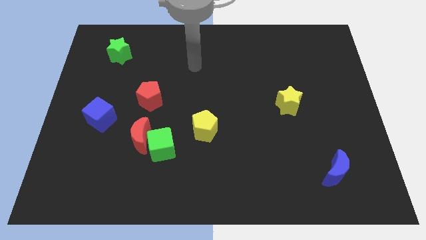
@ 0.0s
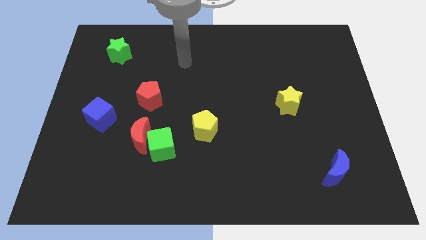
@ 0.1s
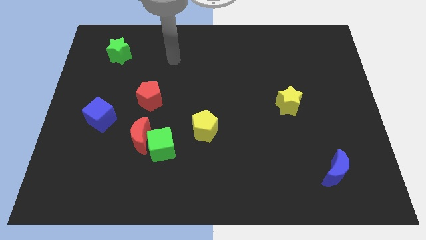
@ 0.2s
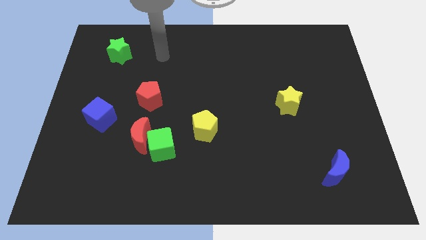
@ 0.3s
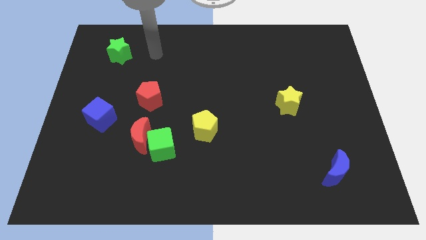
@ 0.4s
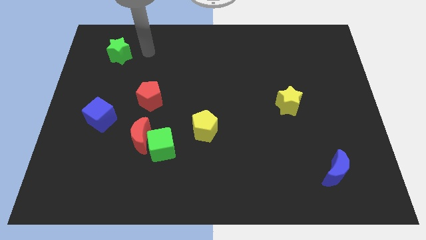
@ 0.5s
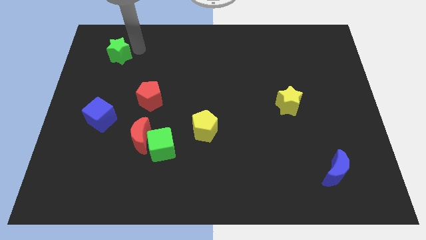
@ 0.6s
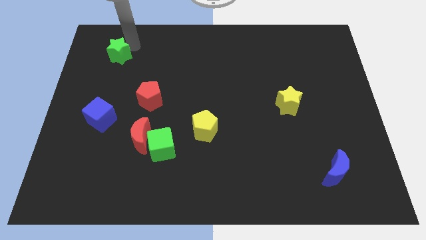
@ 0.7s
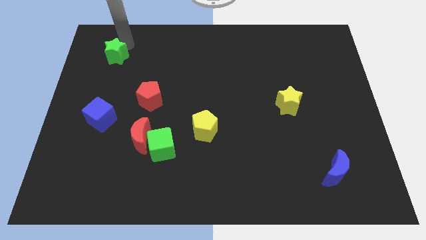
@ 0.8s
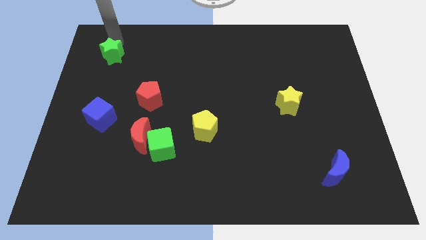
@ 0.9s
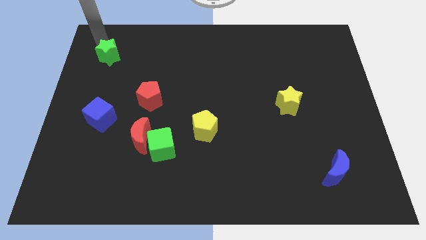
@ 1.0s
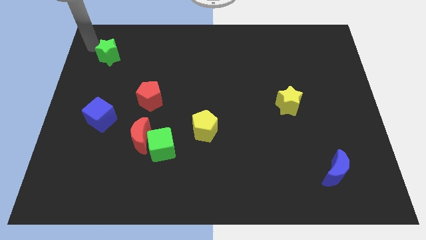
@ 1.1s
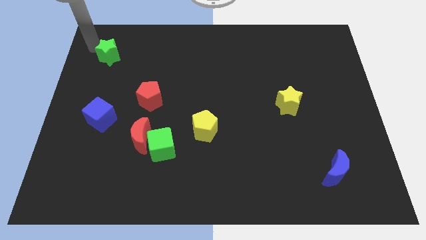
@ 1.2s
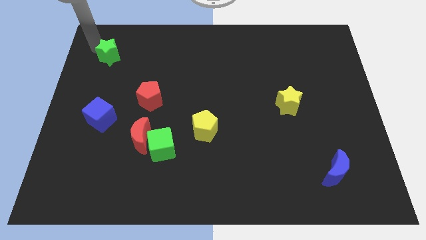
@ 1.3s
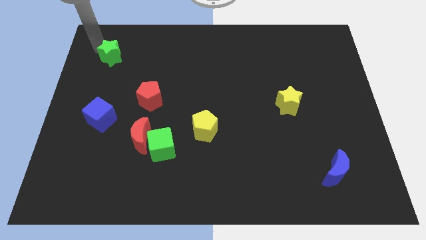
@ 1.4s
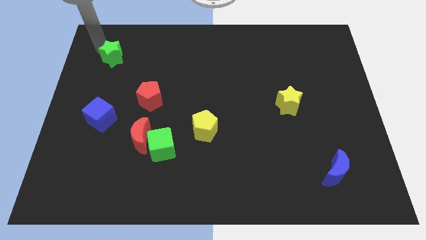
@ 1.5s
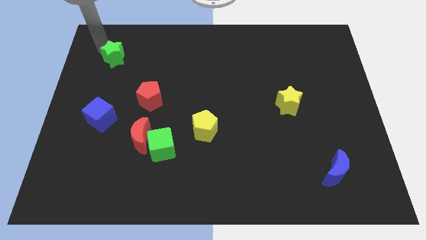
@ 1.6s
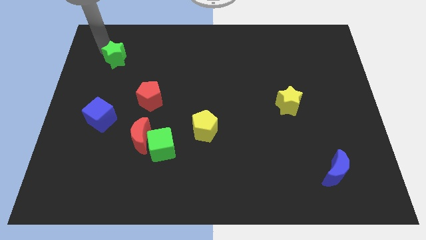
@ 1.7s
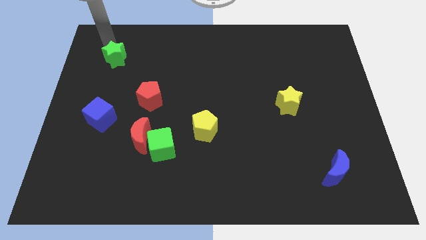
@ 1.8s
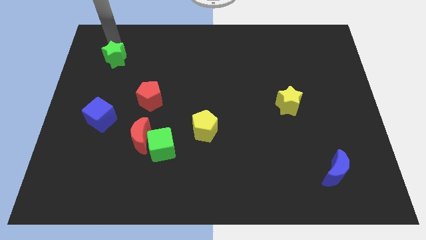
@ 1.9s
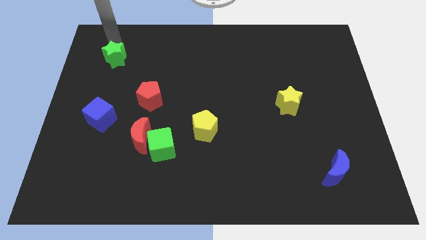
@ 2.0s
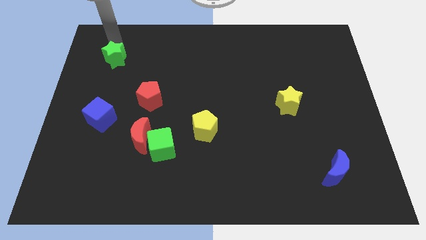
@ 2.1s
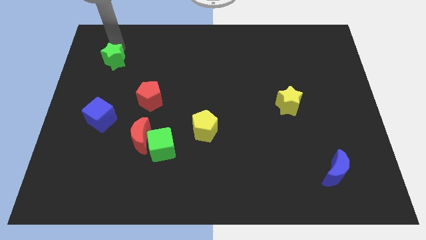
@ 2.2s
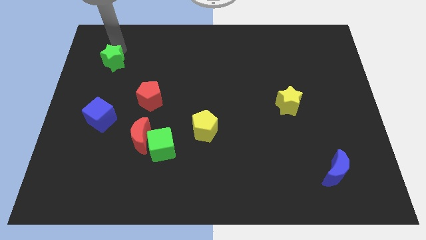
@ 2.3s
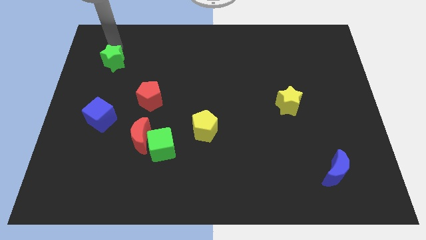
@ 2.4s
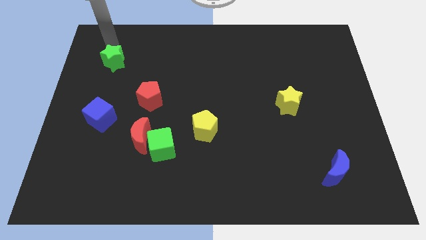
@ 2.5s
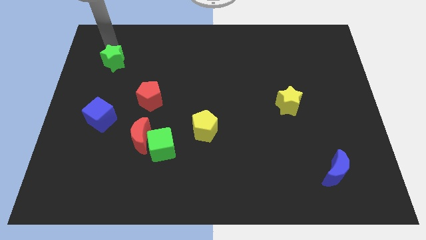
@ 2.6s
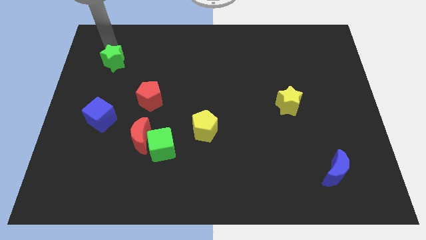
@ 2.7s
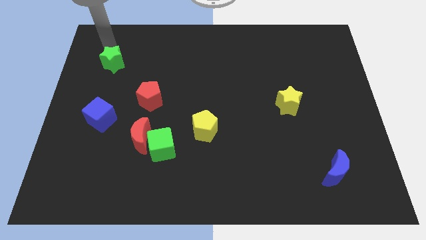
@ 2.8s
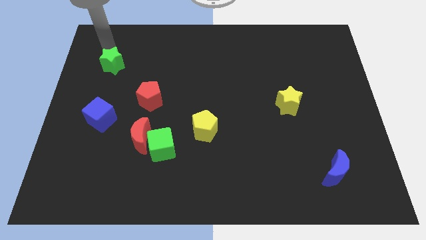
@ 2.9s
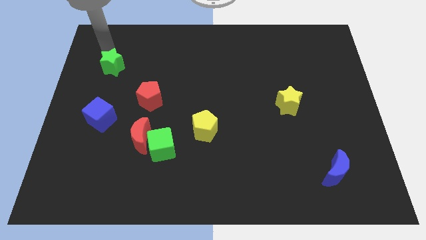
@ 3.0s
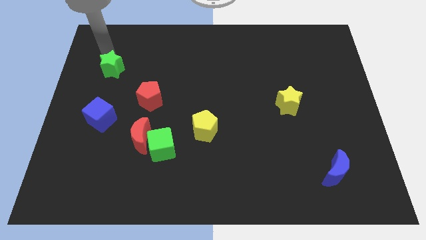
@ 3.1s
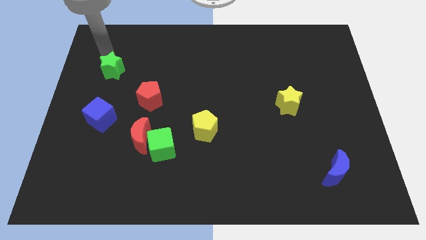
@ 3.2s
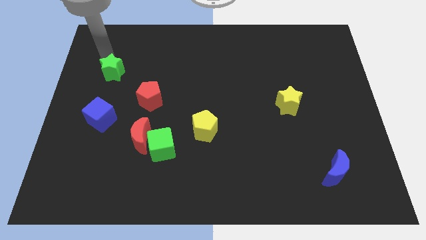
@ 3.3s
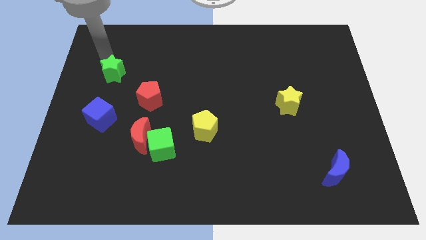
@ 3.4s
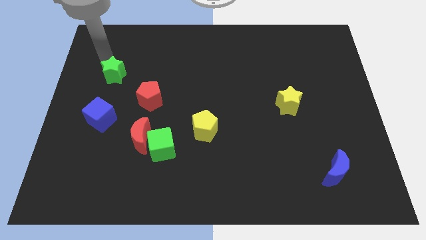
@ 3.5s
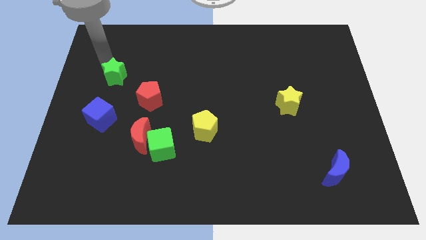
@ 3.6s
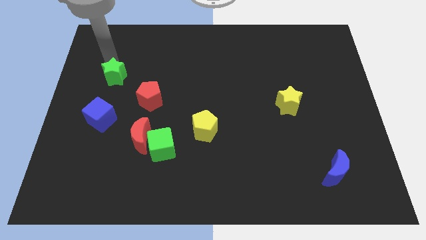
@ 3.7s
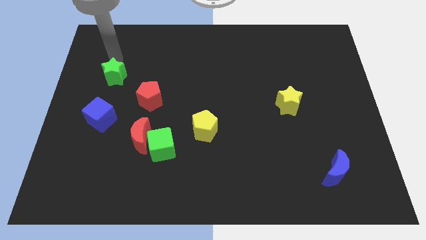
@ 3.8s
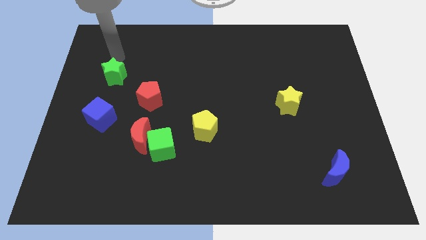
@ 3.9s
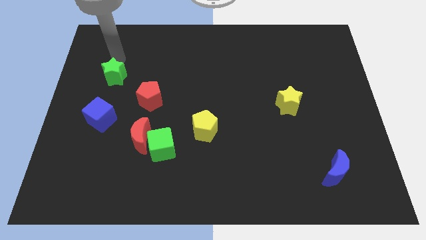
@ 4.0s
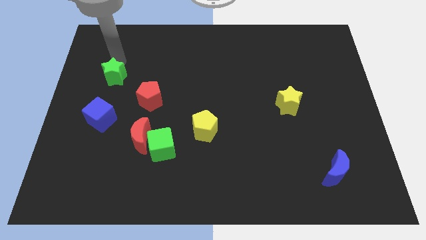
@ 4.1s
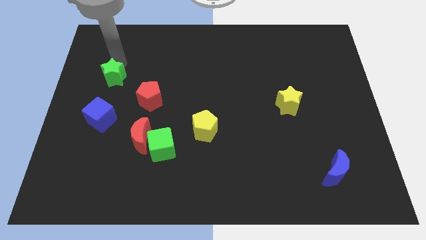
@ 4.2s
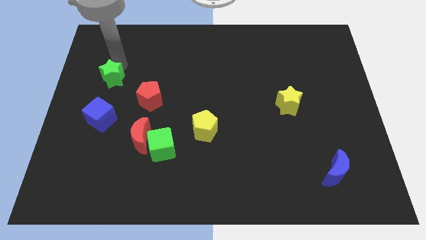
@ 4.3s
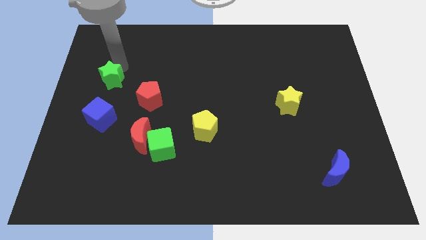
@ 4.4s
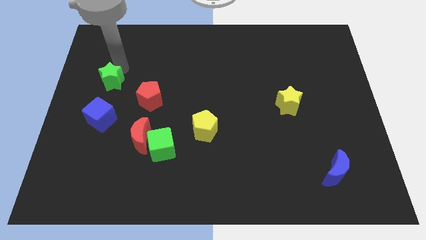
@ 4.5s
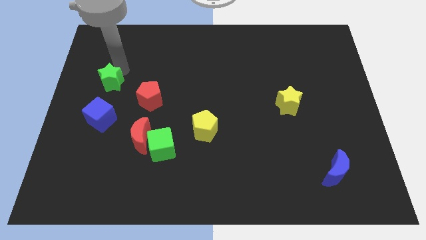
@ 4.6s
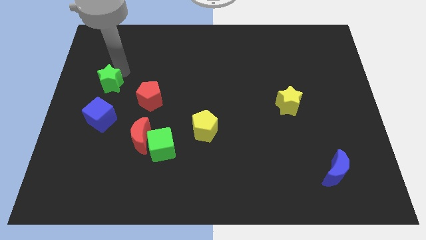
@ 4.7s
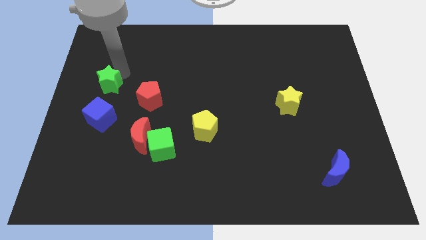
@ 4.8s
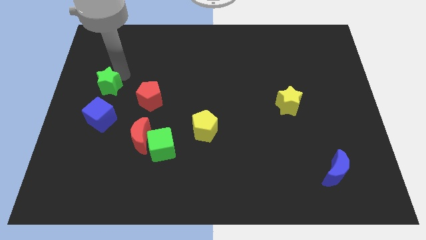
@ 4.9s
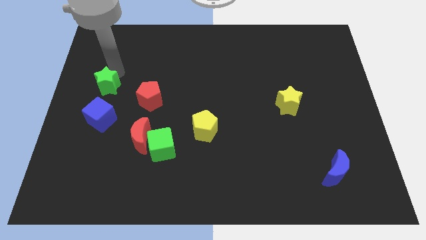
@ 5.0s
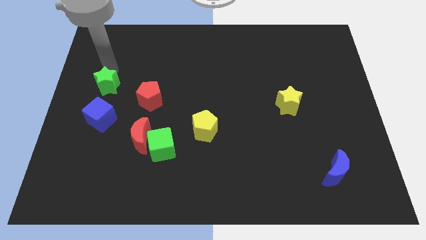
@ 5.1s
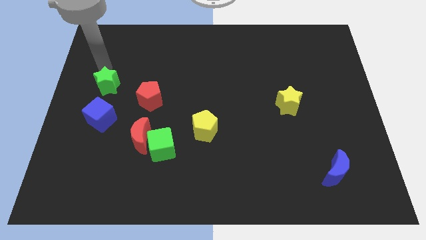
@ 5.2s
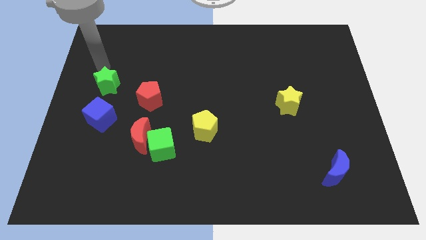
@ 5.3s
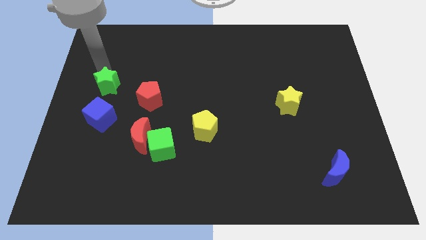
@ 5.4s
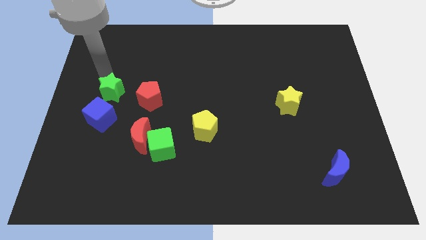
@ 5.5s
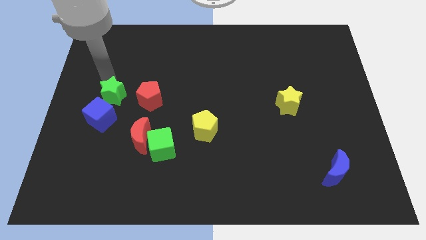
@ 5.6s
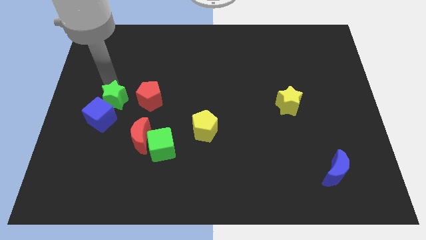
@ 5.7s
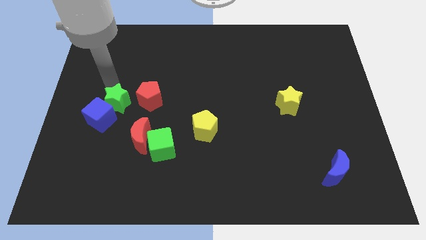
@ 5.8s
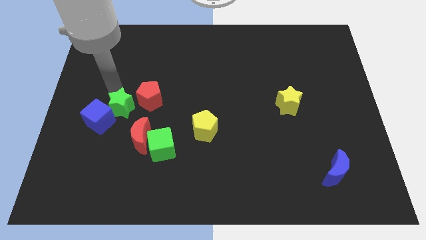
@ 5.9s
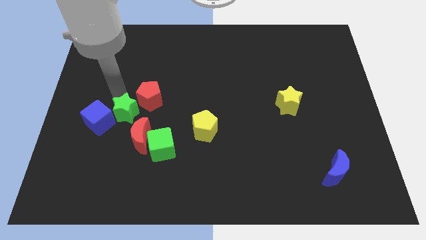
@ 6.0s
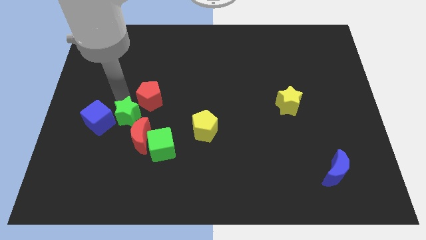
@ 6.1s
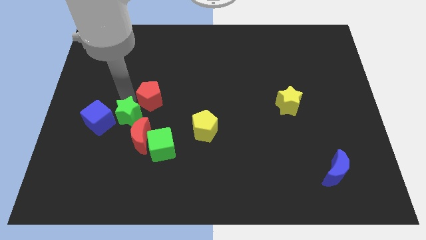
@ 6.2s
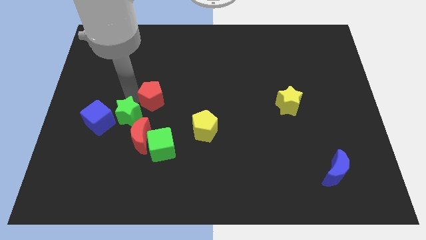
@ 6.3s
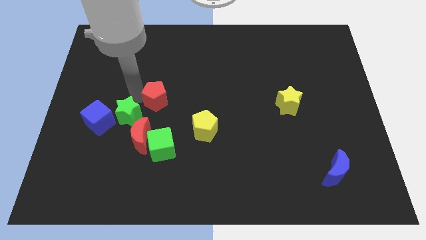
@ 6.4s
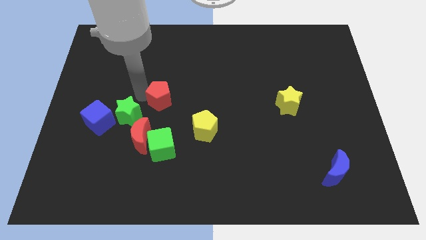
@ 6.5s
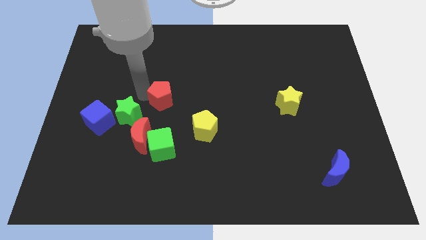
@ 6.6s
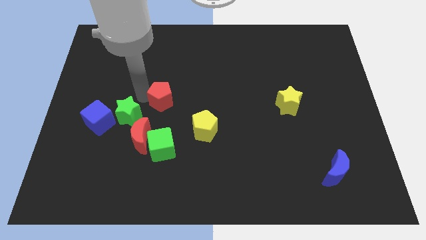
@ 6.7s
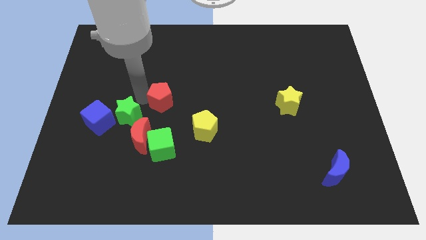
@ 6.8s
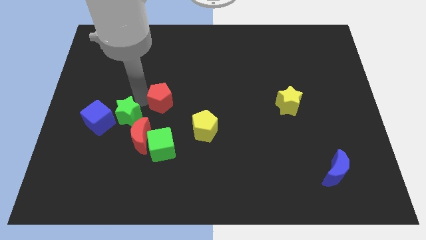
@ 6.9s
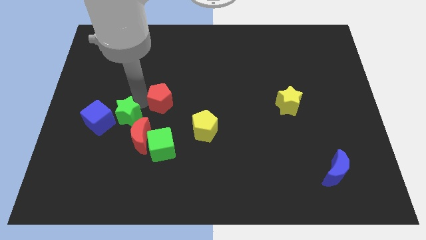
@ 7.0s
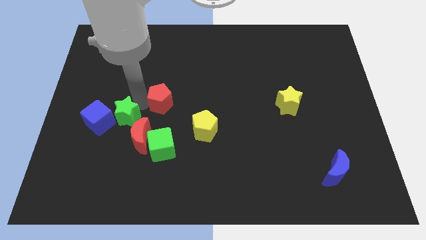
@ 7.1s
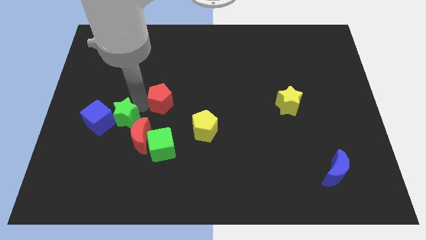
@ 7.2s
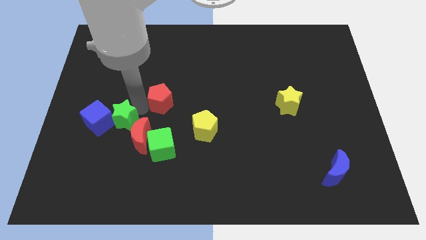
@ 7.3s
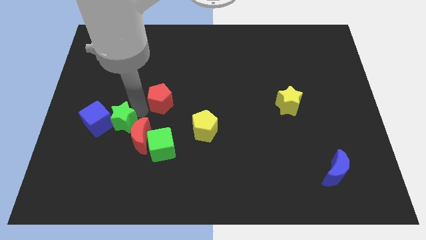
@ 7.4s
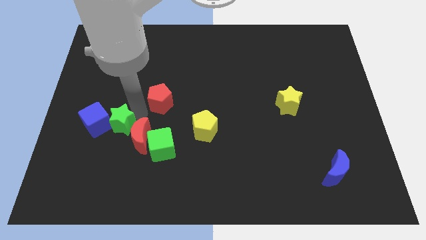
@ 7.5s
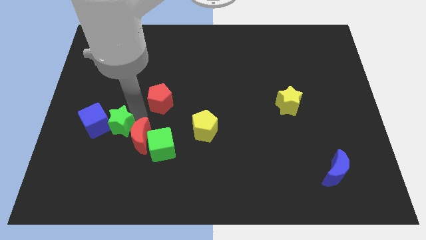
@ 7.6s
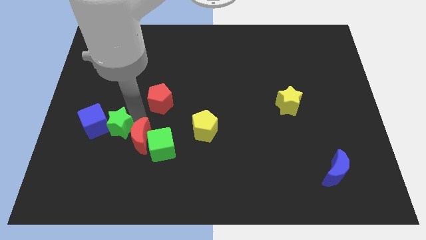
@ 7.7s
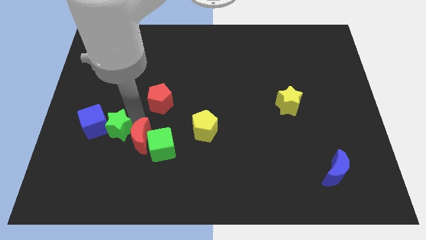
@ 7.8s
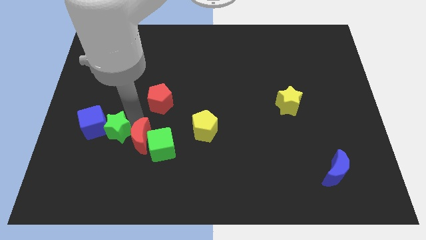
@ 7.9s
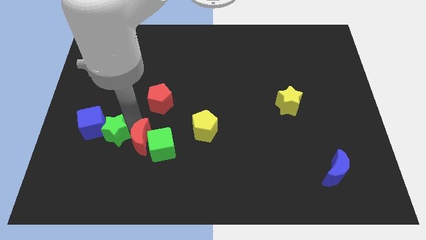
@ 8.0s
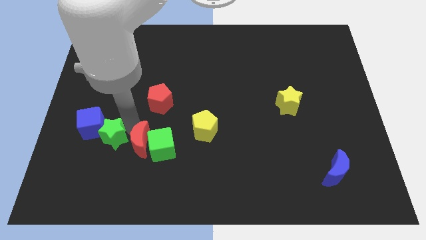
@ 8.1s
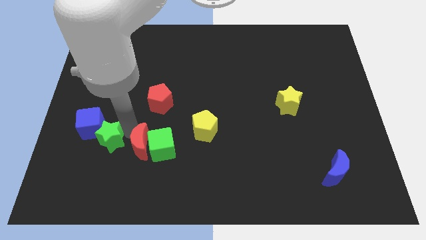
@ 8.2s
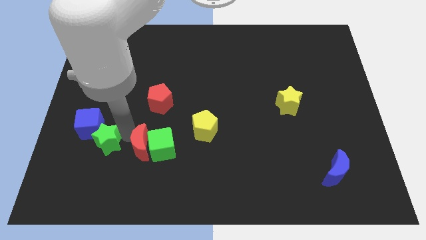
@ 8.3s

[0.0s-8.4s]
slide the green star to the bottom side of the blue cube
